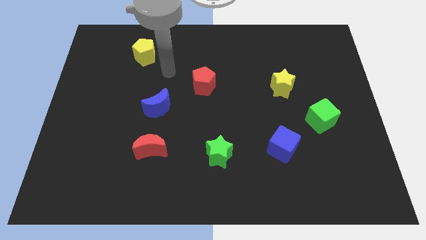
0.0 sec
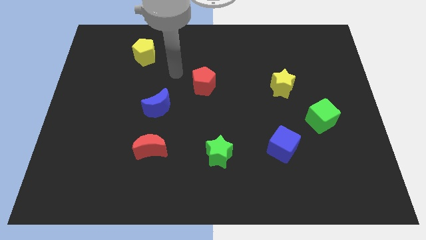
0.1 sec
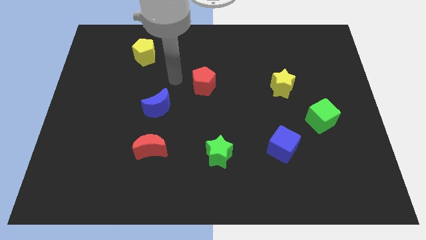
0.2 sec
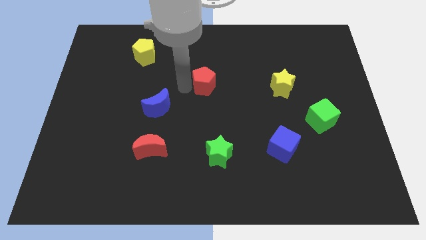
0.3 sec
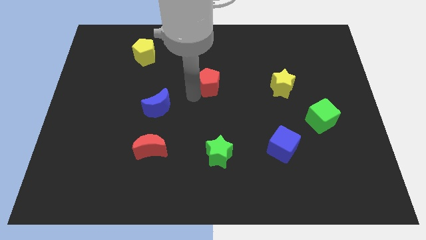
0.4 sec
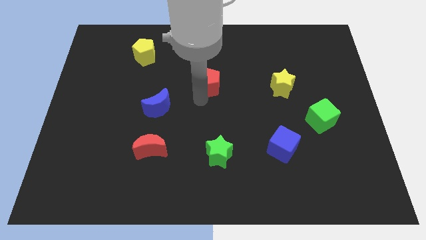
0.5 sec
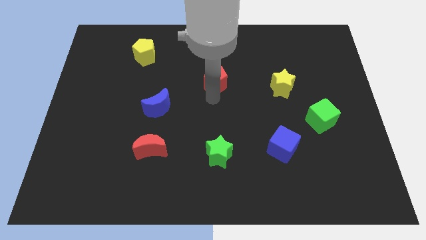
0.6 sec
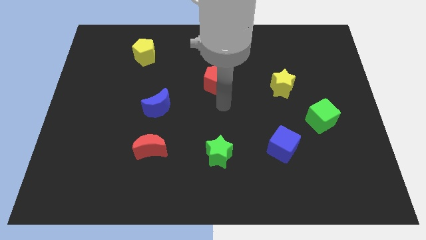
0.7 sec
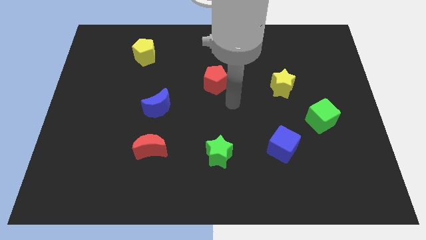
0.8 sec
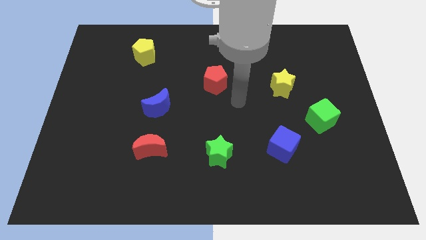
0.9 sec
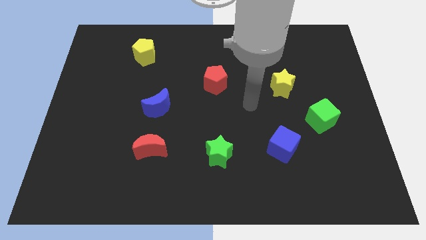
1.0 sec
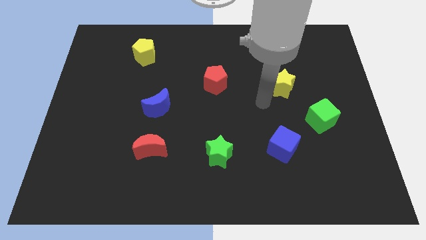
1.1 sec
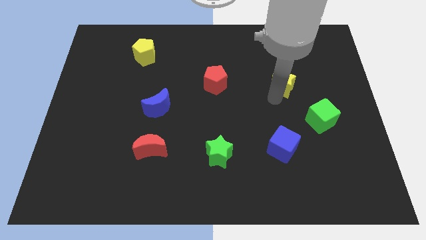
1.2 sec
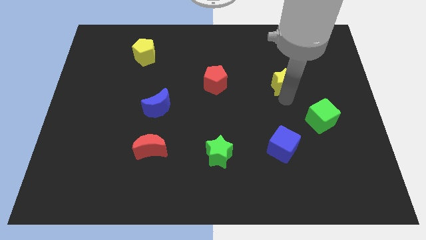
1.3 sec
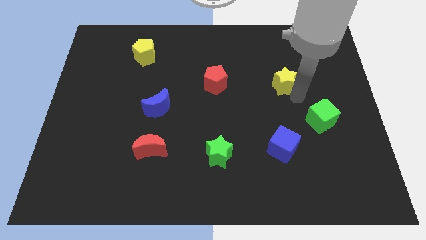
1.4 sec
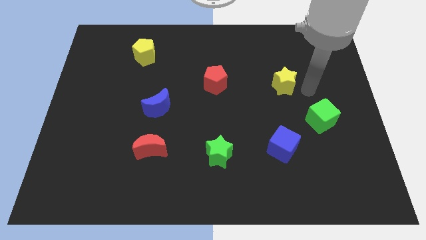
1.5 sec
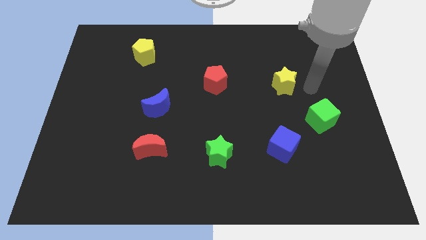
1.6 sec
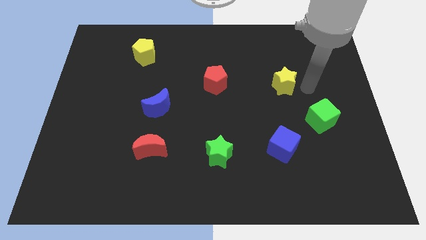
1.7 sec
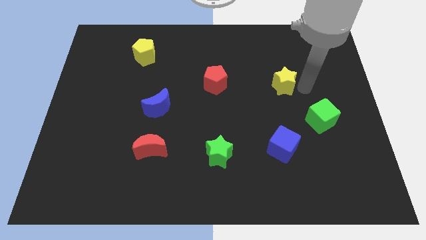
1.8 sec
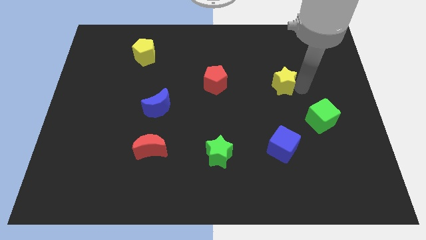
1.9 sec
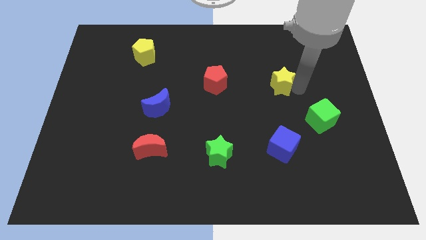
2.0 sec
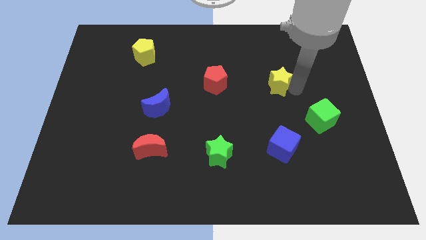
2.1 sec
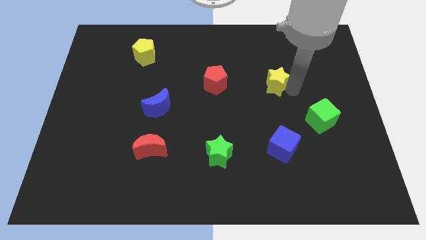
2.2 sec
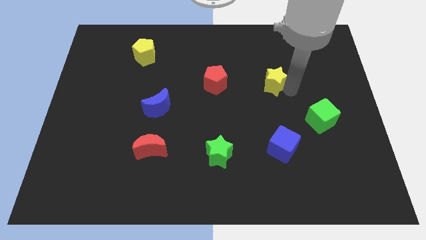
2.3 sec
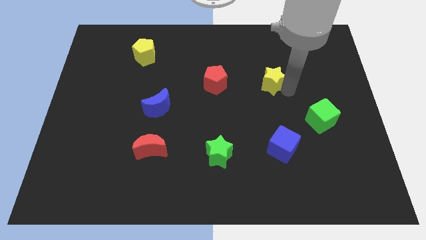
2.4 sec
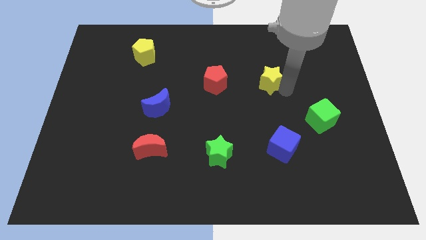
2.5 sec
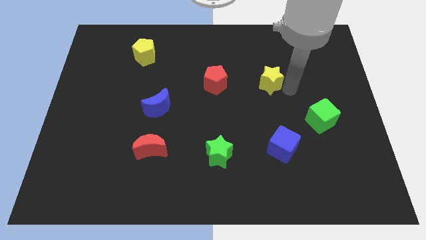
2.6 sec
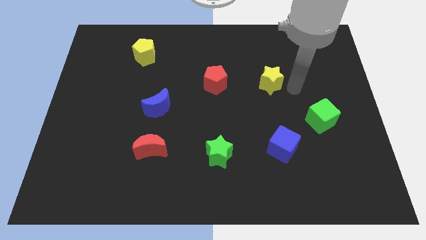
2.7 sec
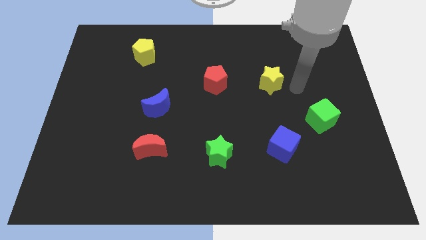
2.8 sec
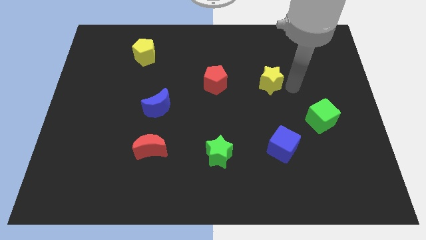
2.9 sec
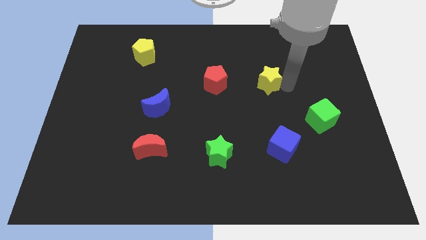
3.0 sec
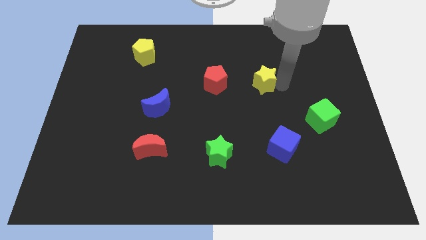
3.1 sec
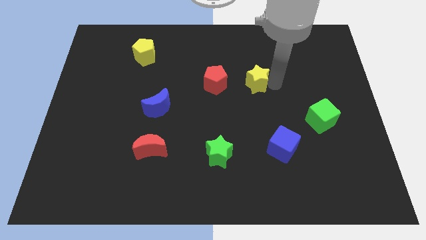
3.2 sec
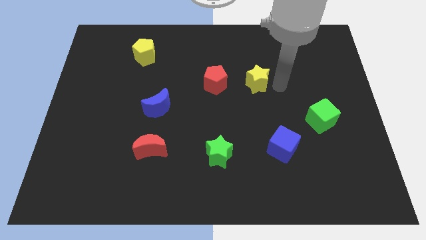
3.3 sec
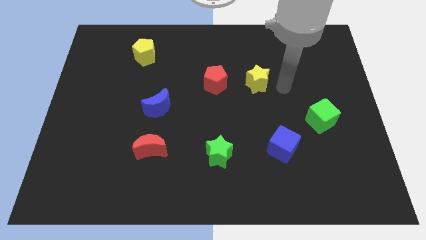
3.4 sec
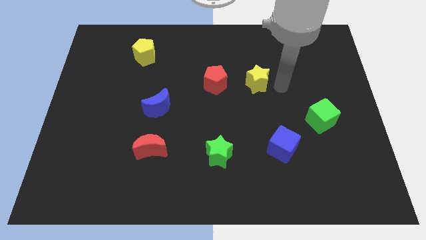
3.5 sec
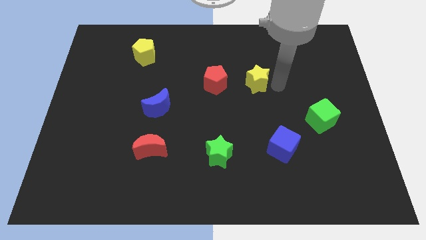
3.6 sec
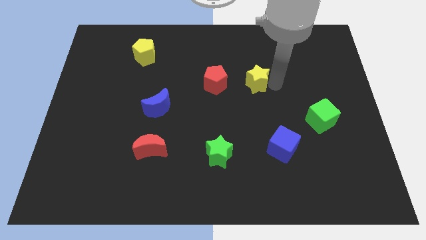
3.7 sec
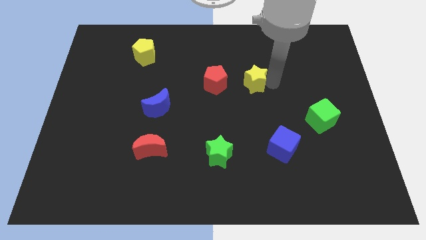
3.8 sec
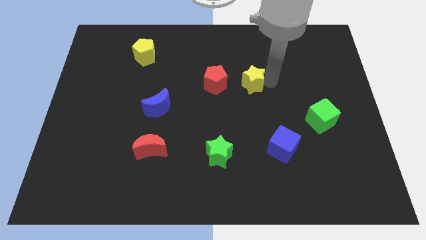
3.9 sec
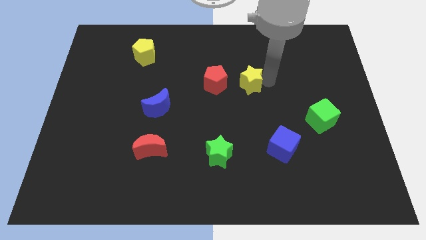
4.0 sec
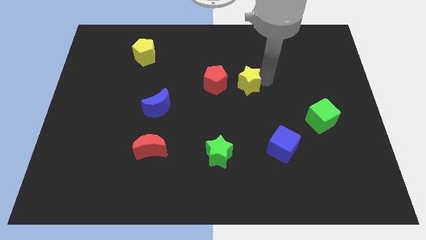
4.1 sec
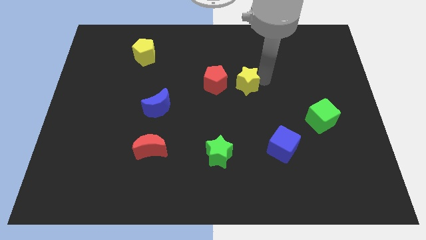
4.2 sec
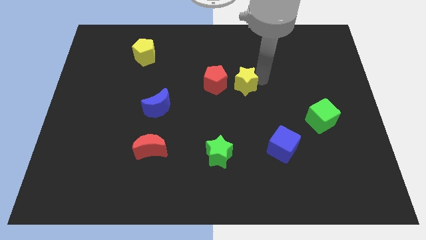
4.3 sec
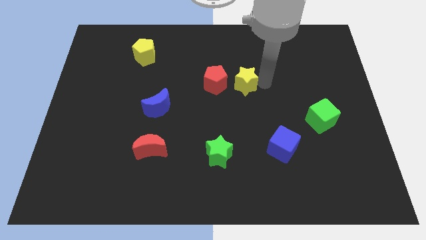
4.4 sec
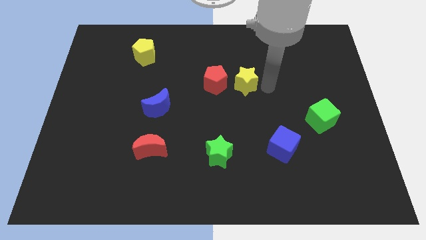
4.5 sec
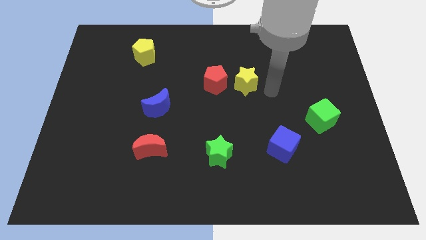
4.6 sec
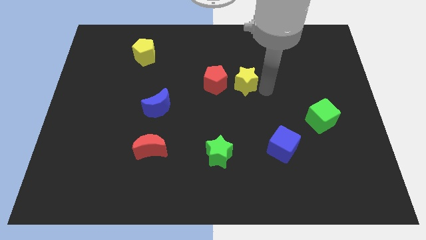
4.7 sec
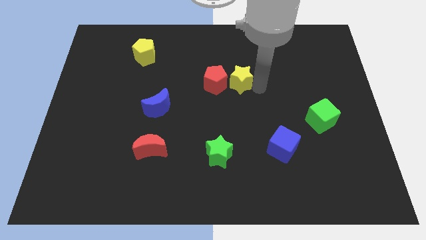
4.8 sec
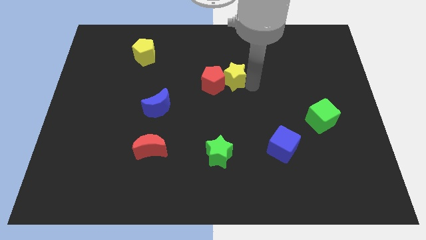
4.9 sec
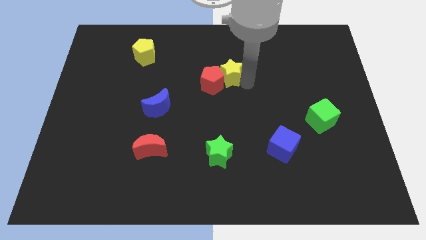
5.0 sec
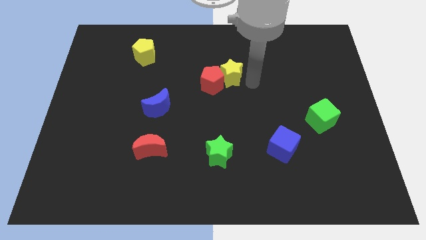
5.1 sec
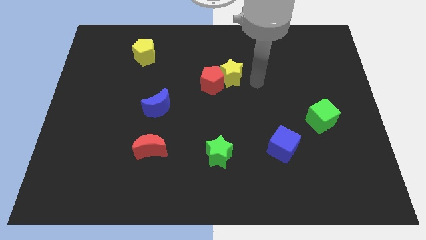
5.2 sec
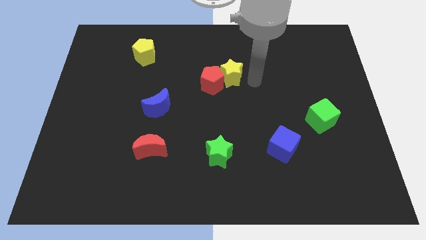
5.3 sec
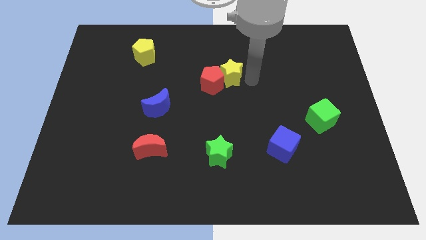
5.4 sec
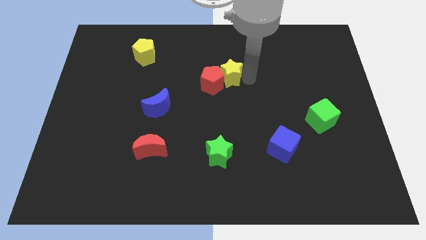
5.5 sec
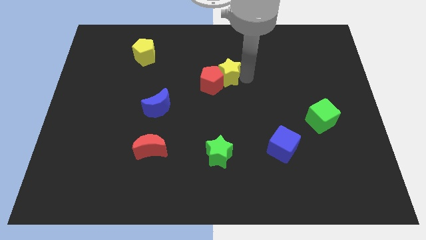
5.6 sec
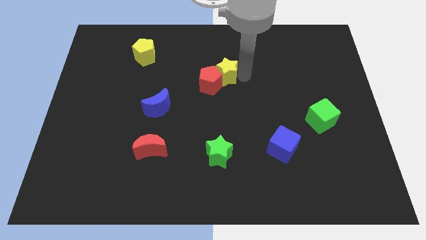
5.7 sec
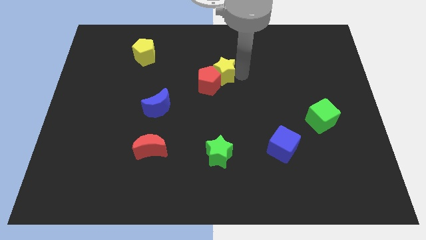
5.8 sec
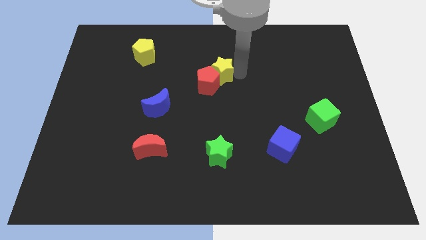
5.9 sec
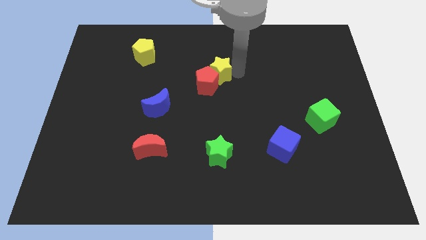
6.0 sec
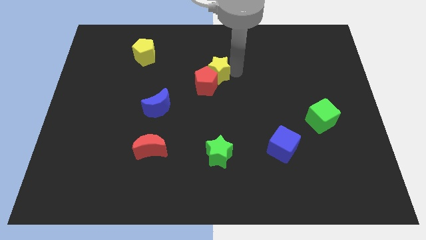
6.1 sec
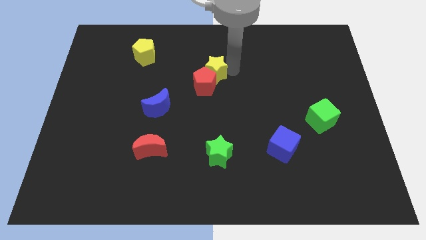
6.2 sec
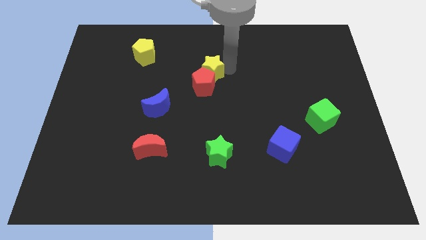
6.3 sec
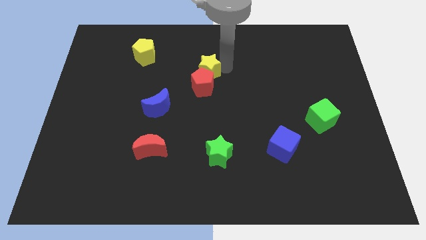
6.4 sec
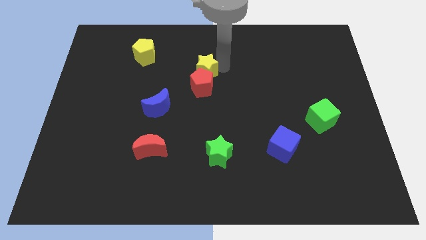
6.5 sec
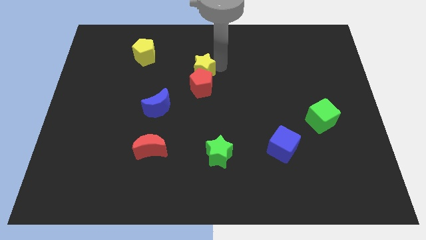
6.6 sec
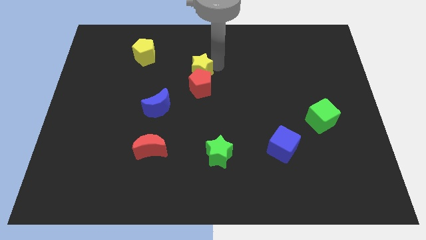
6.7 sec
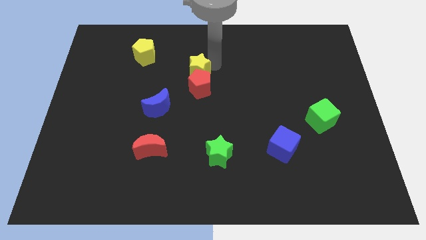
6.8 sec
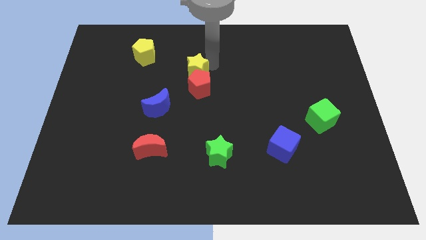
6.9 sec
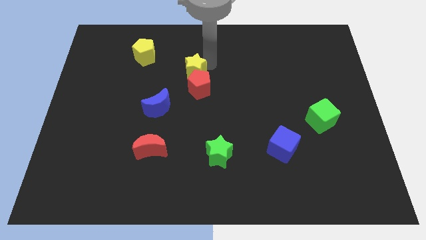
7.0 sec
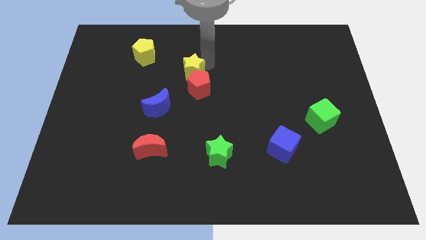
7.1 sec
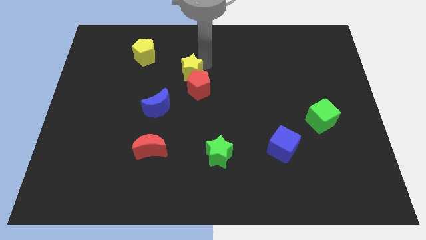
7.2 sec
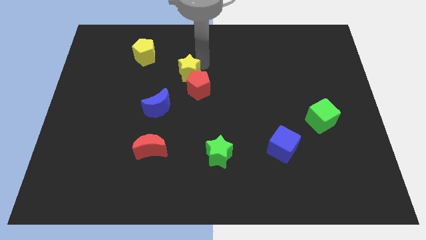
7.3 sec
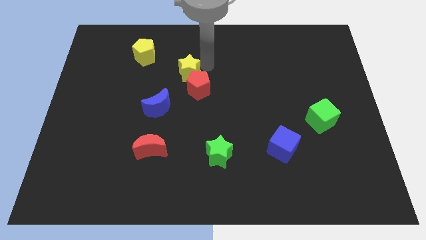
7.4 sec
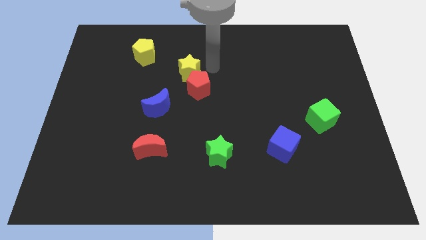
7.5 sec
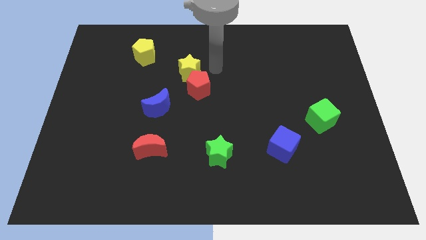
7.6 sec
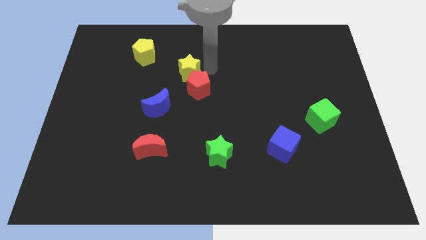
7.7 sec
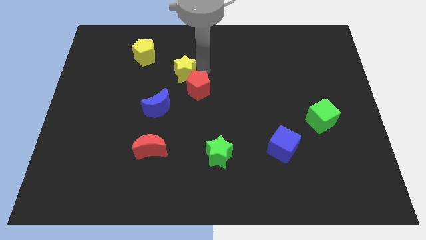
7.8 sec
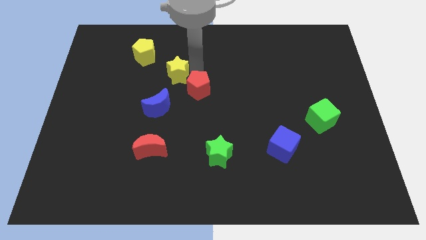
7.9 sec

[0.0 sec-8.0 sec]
slide the yellow star to the top side of the blue moon
